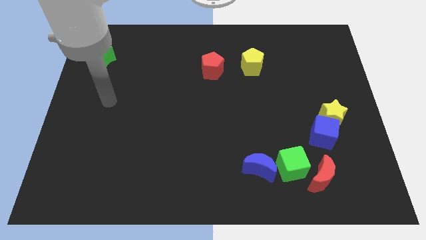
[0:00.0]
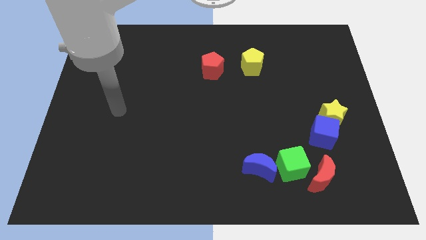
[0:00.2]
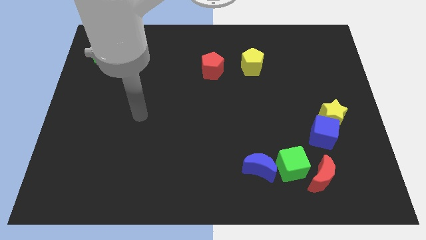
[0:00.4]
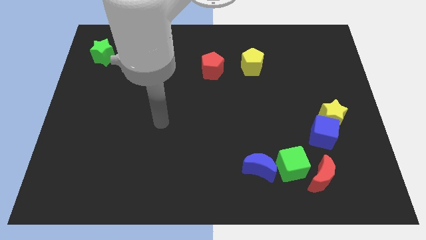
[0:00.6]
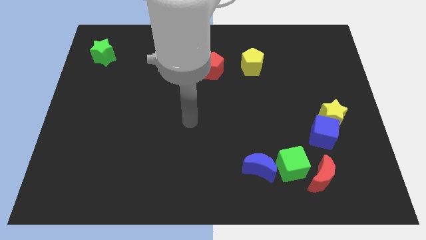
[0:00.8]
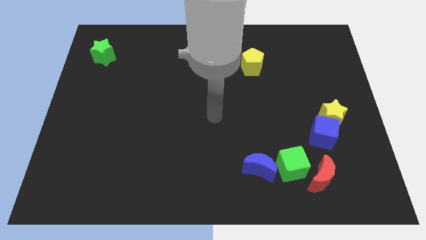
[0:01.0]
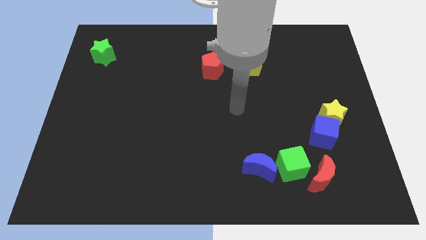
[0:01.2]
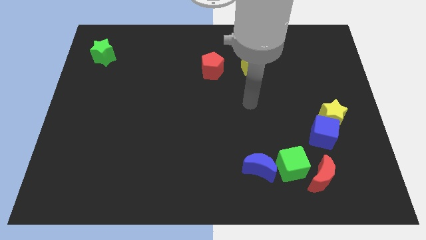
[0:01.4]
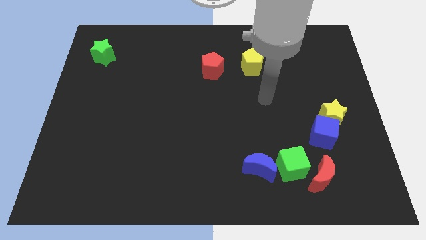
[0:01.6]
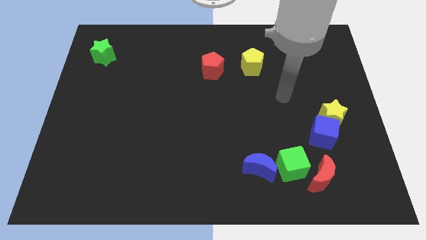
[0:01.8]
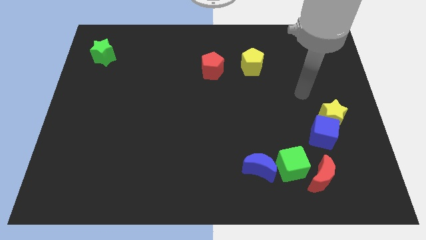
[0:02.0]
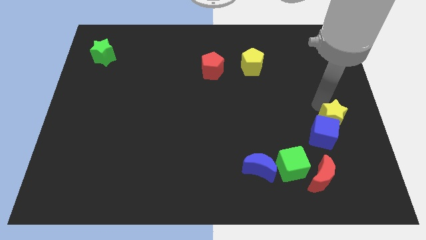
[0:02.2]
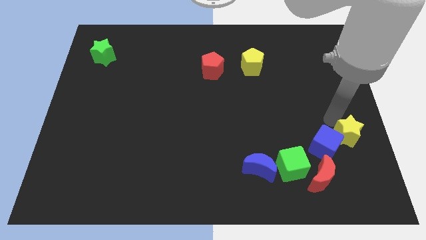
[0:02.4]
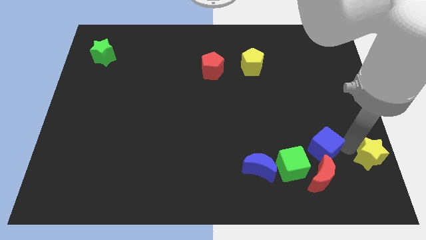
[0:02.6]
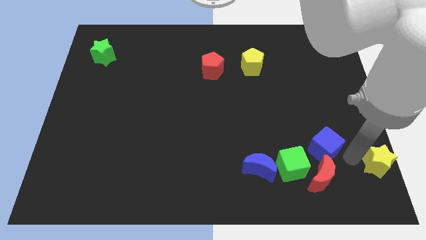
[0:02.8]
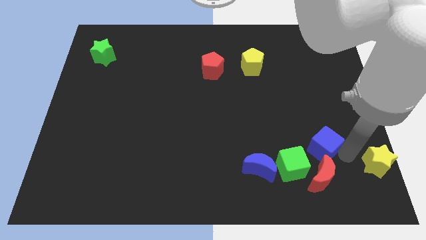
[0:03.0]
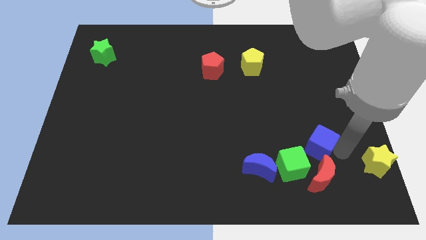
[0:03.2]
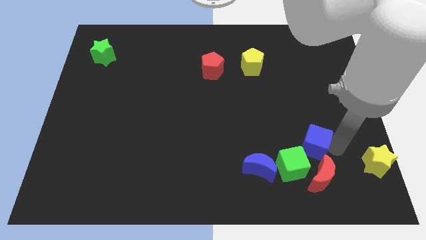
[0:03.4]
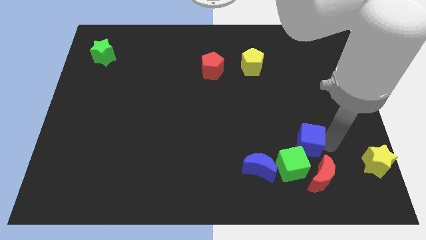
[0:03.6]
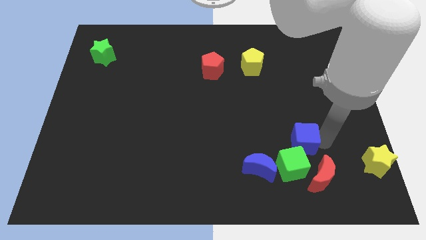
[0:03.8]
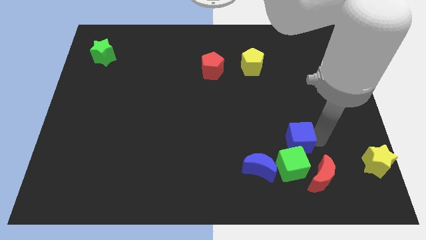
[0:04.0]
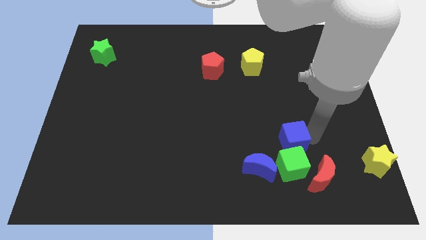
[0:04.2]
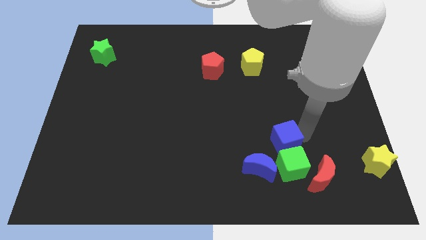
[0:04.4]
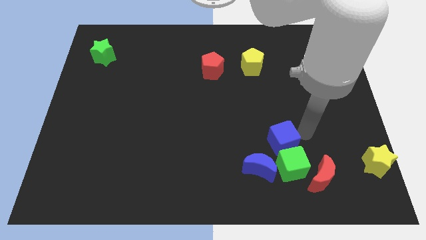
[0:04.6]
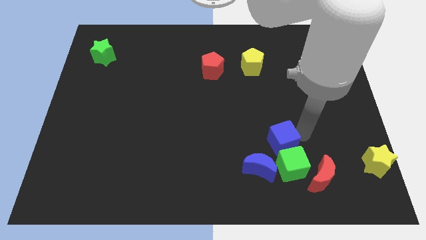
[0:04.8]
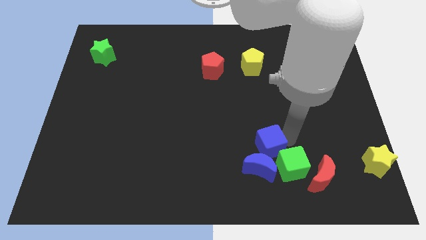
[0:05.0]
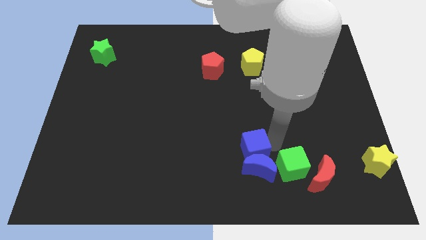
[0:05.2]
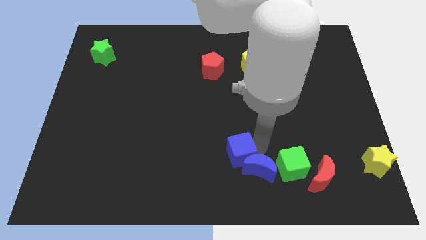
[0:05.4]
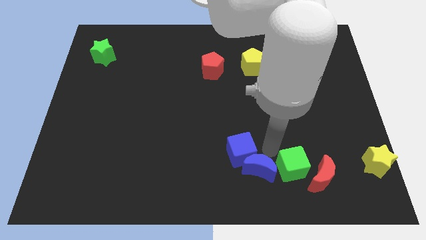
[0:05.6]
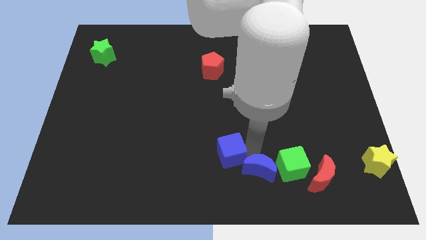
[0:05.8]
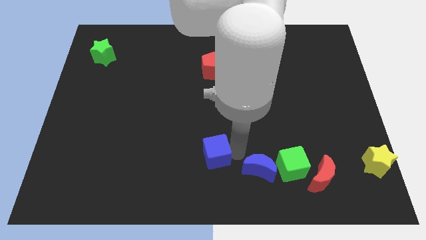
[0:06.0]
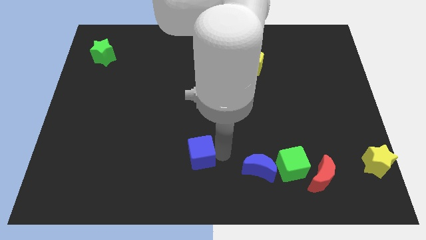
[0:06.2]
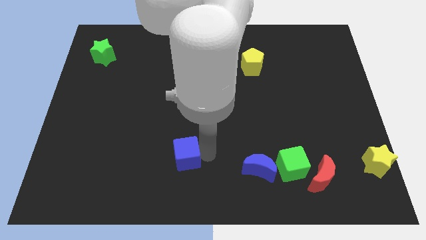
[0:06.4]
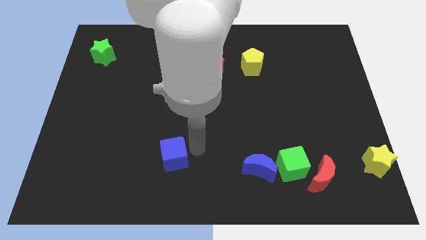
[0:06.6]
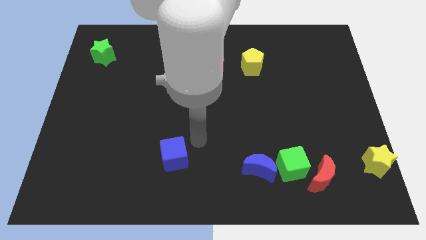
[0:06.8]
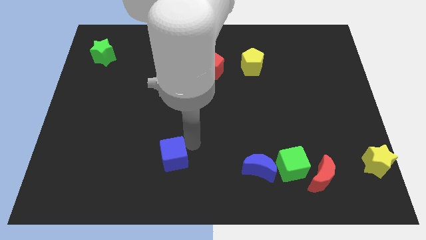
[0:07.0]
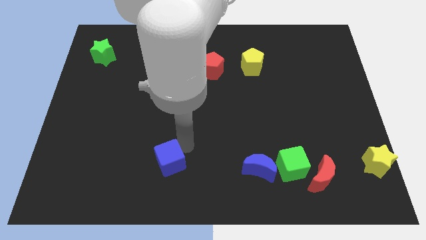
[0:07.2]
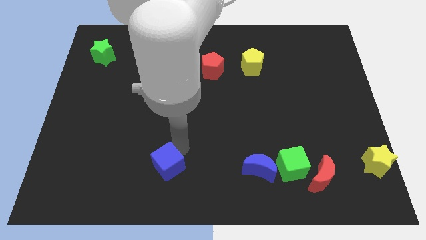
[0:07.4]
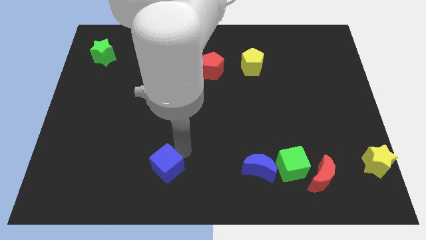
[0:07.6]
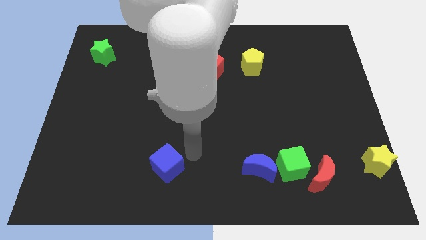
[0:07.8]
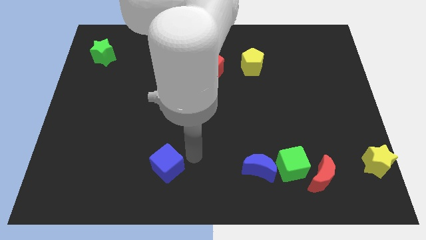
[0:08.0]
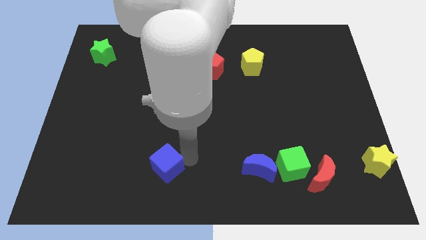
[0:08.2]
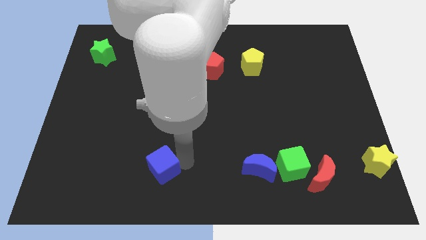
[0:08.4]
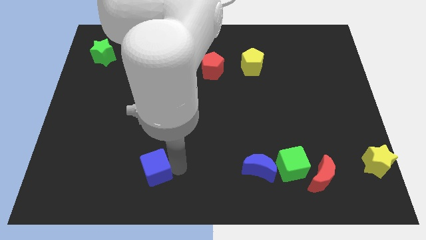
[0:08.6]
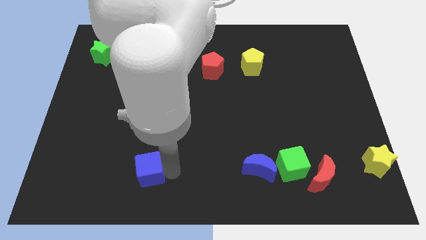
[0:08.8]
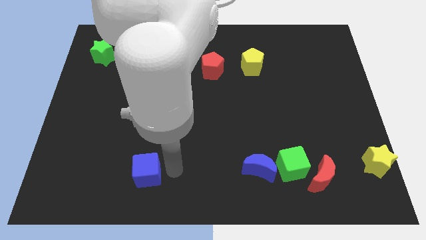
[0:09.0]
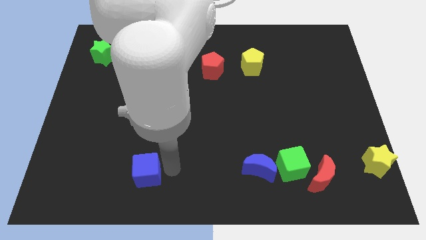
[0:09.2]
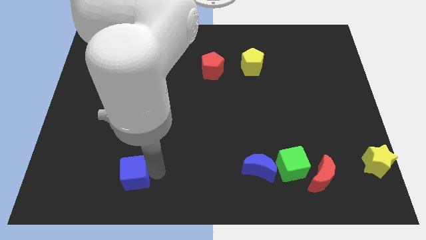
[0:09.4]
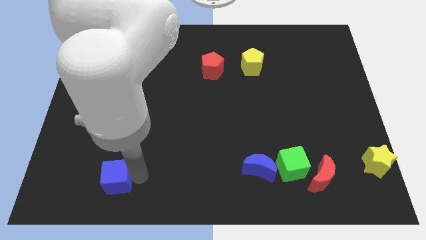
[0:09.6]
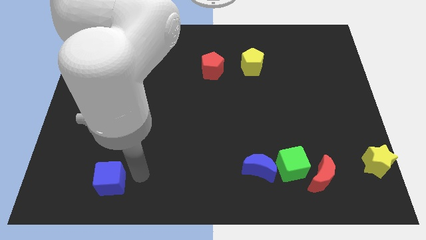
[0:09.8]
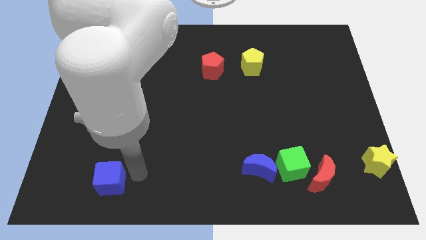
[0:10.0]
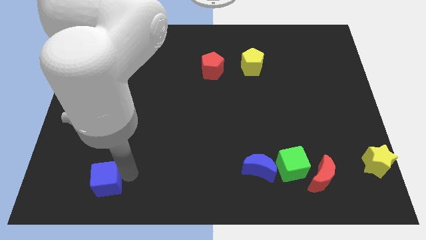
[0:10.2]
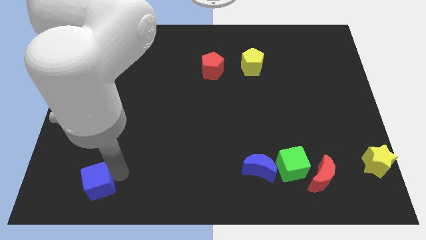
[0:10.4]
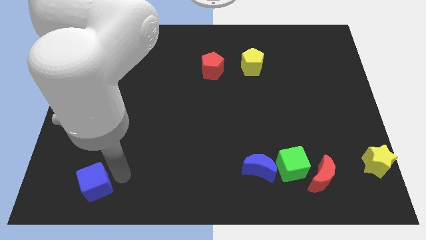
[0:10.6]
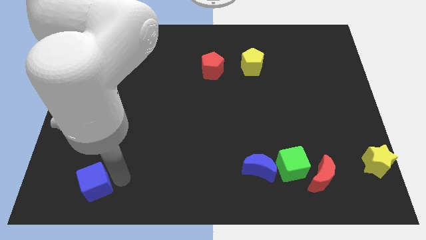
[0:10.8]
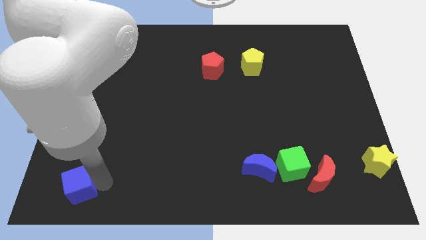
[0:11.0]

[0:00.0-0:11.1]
push the blue cube to the bottom left
